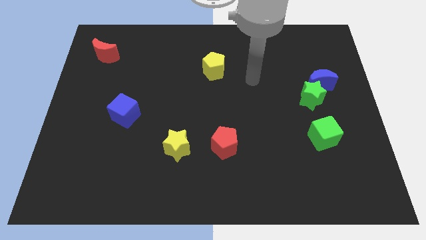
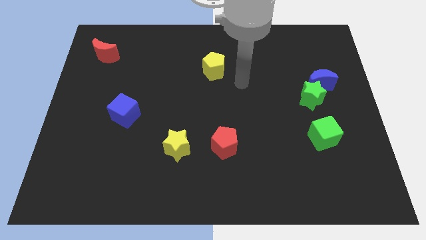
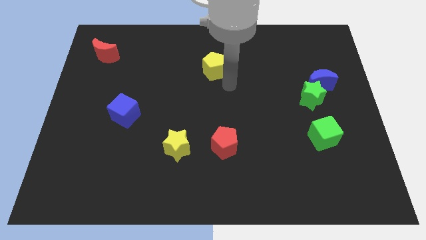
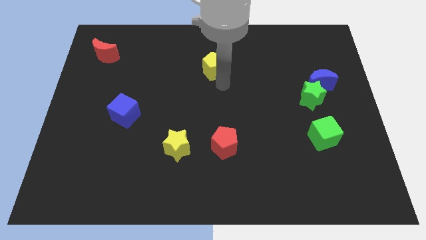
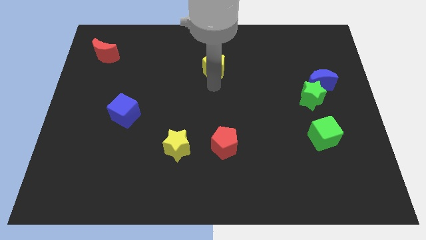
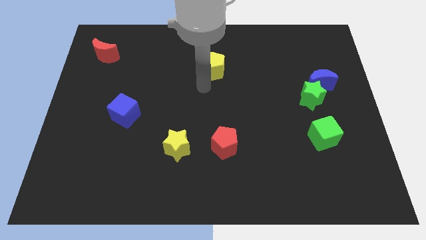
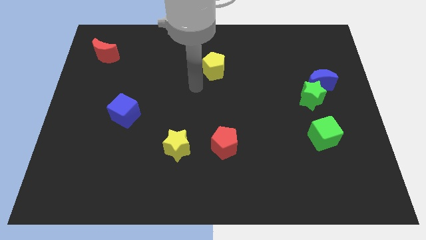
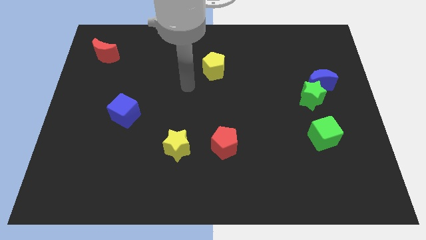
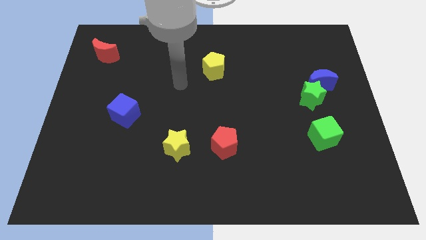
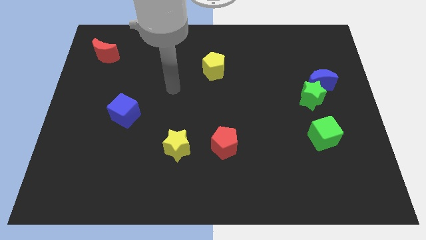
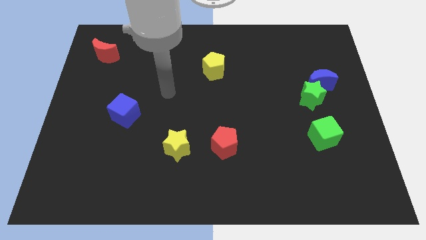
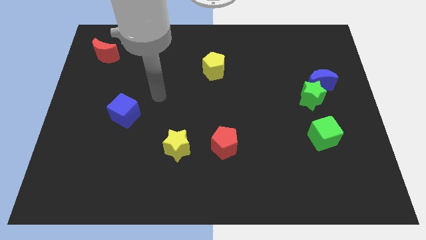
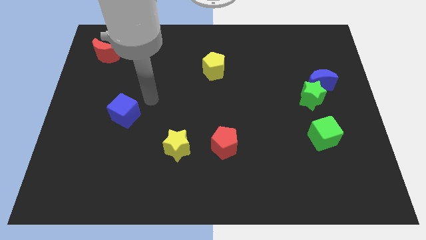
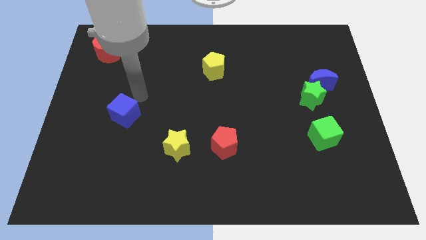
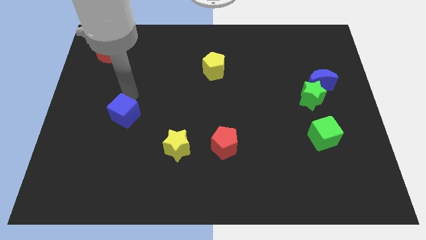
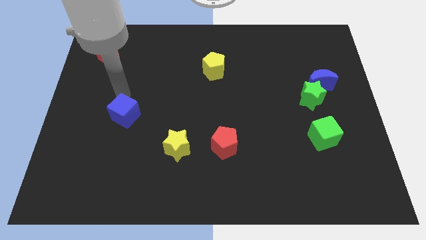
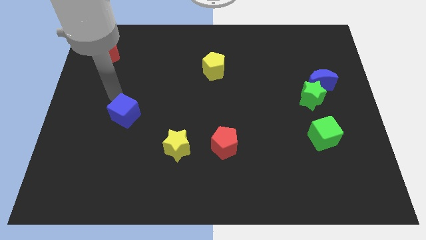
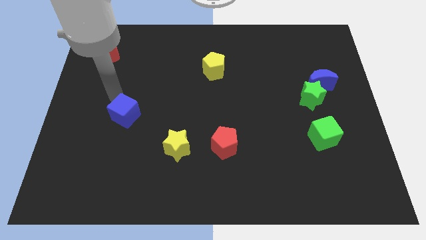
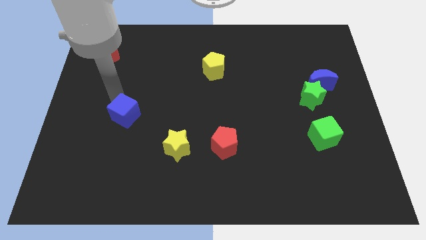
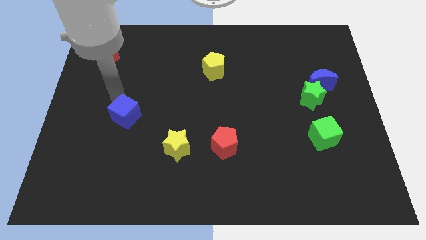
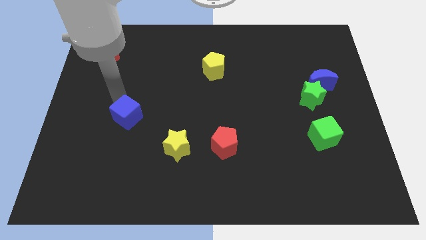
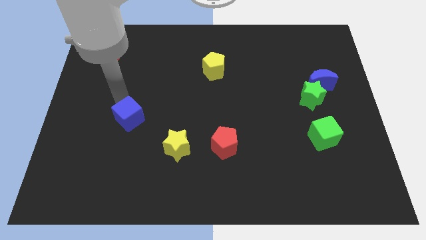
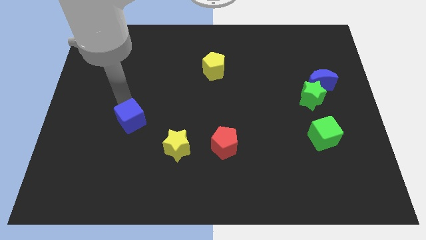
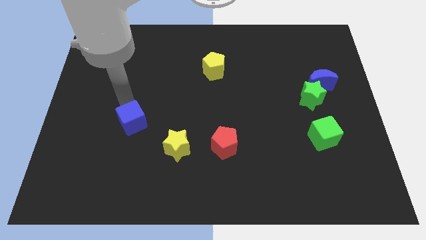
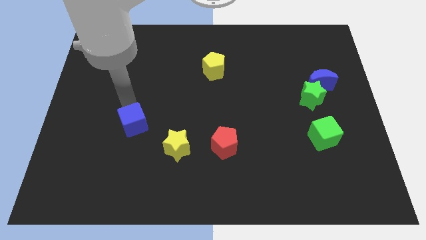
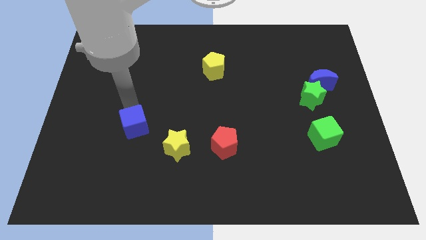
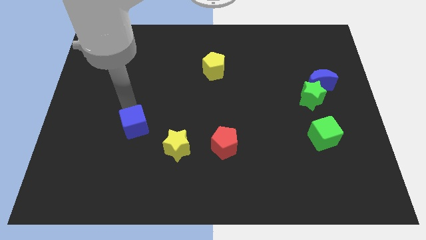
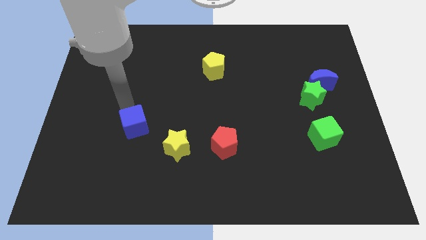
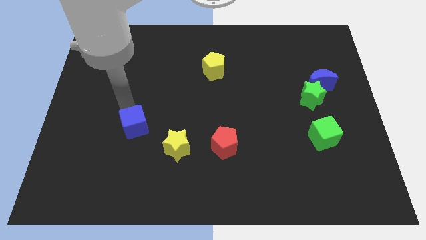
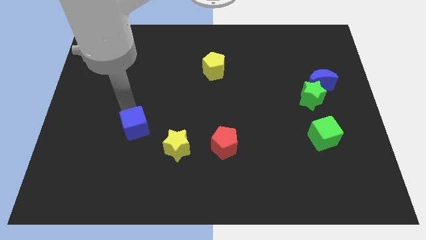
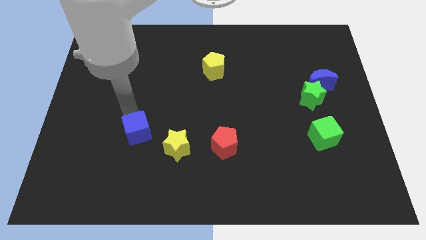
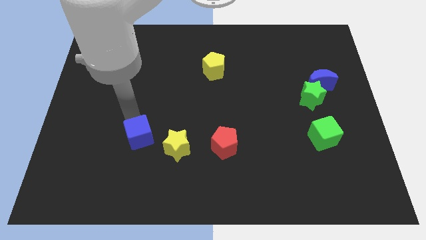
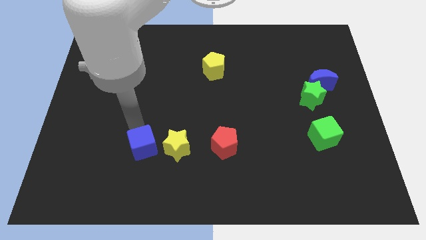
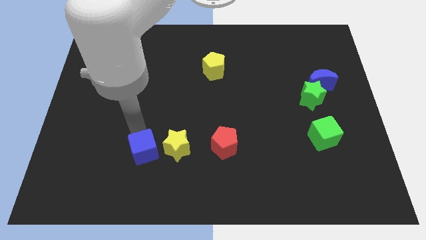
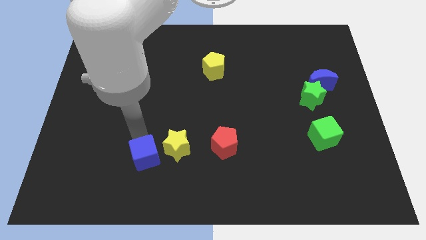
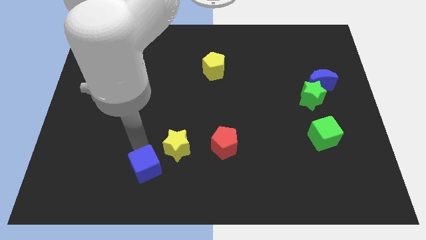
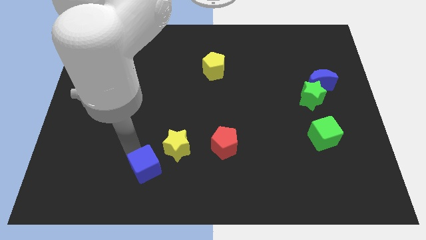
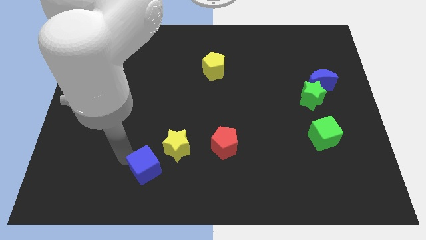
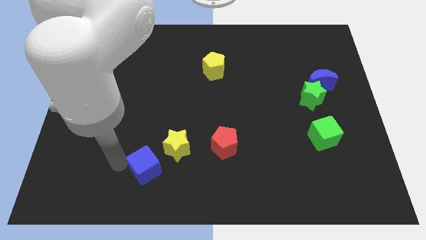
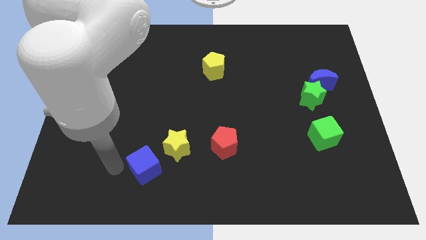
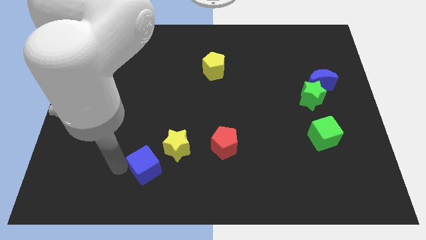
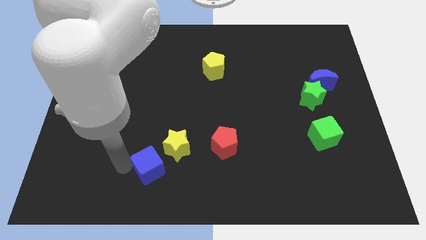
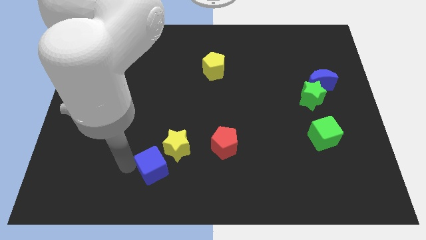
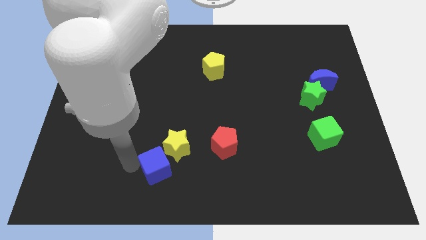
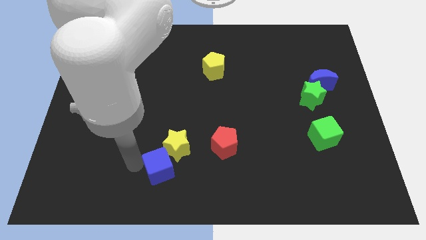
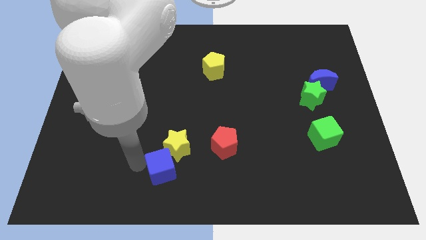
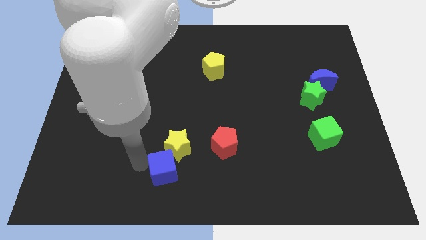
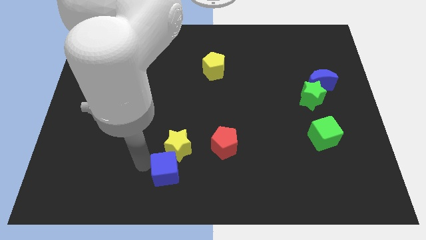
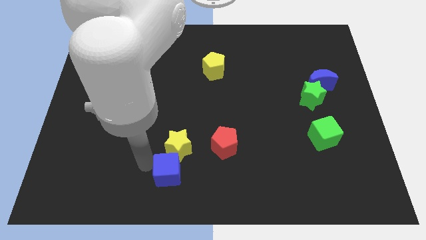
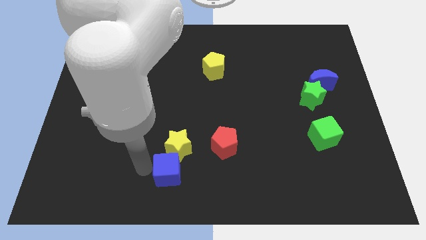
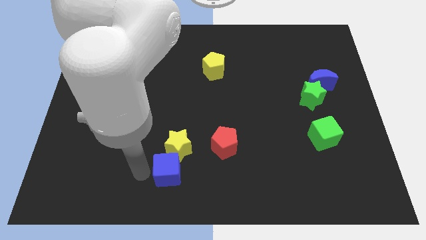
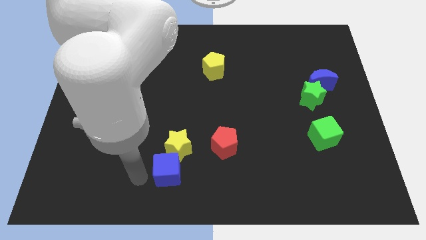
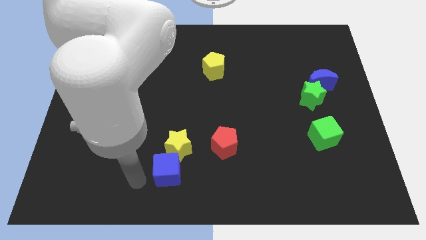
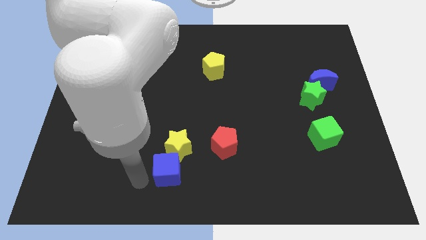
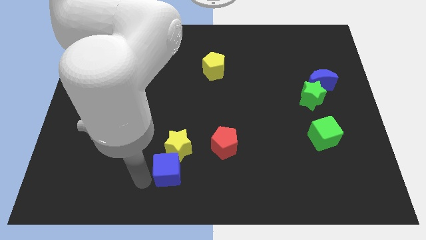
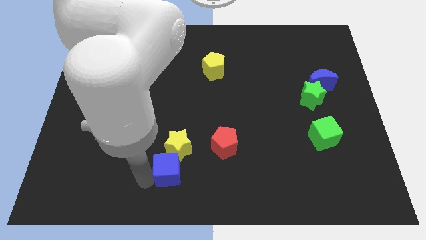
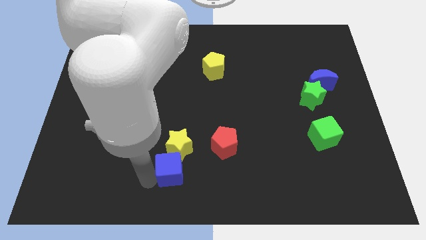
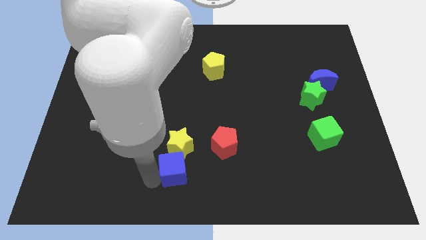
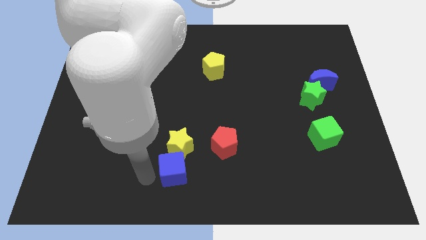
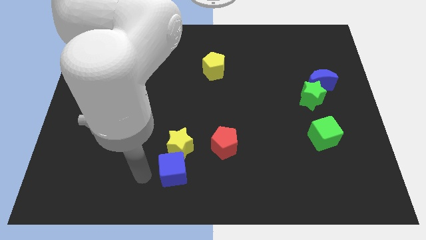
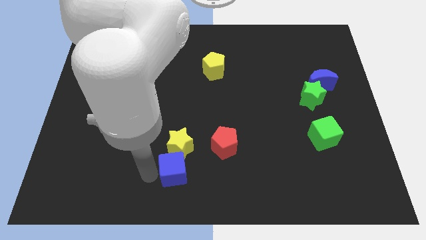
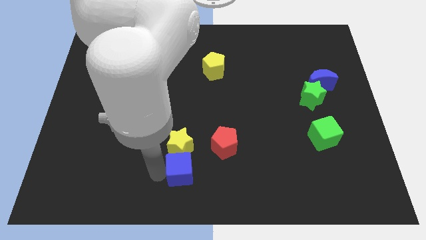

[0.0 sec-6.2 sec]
move the blue cube to the bottom right of the yellow star

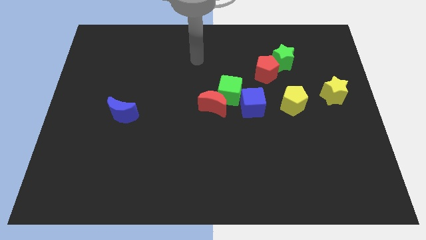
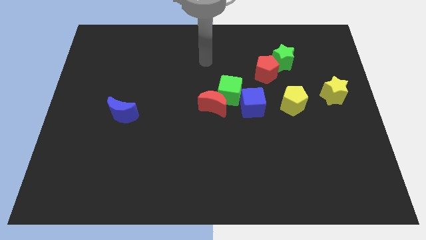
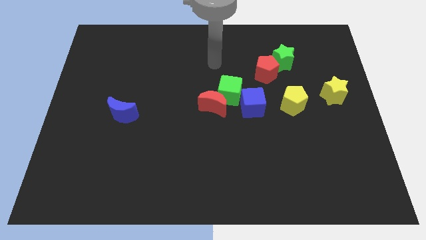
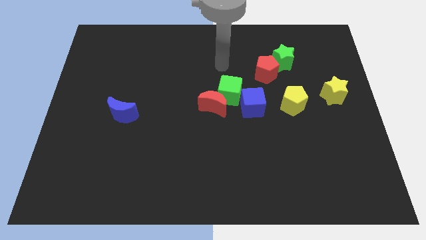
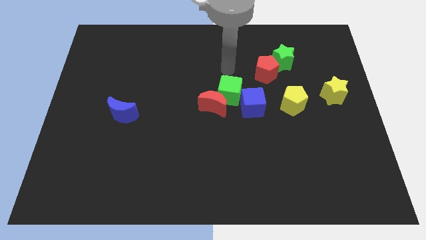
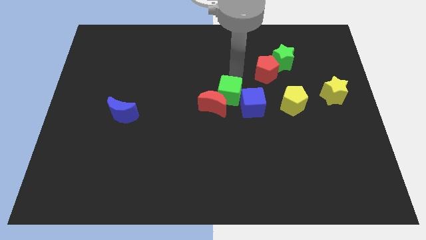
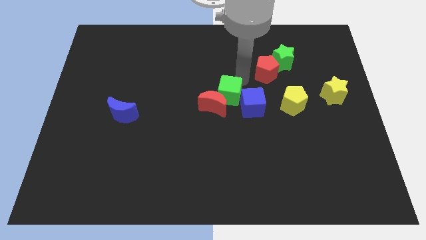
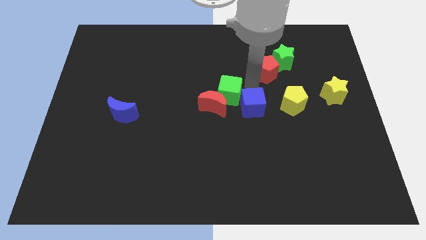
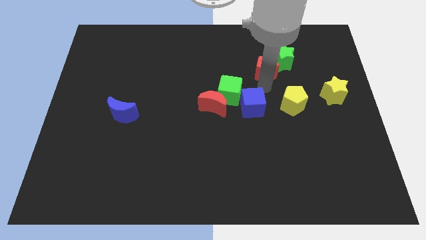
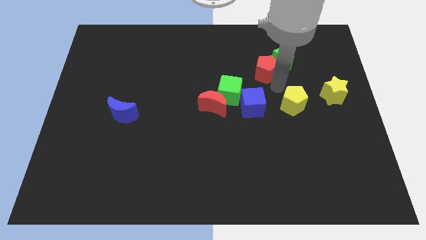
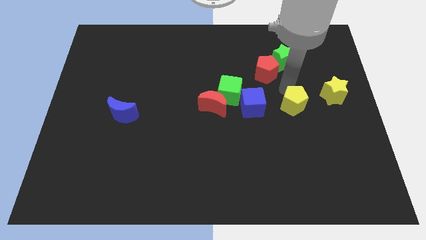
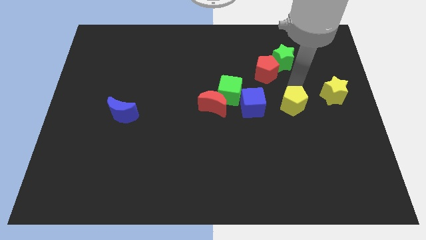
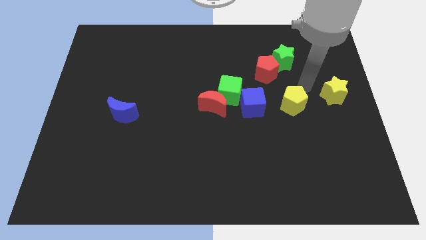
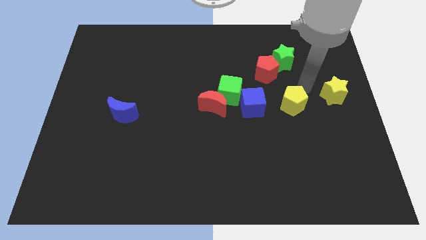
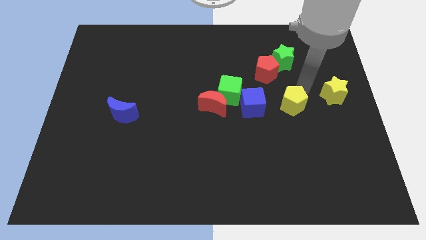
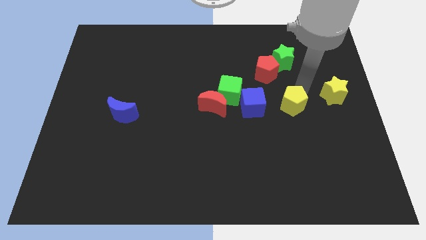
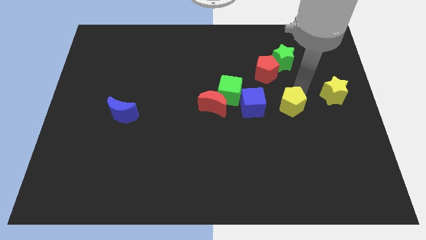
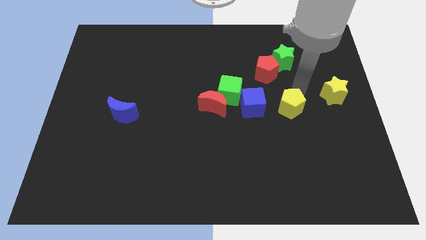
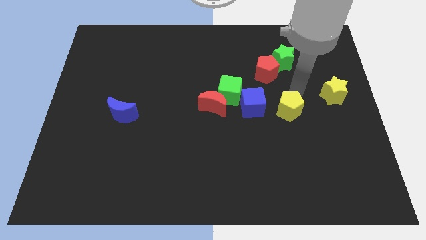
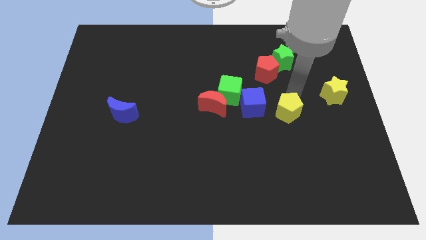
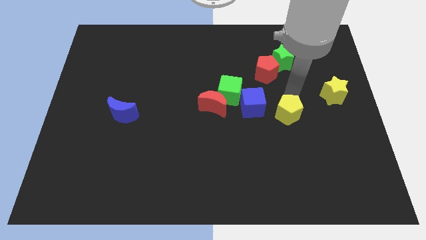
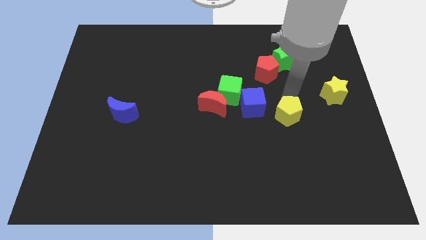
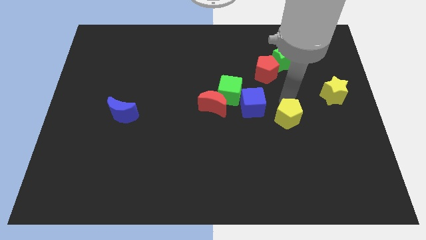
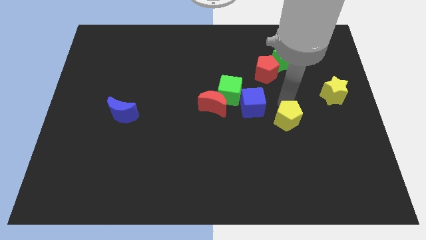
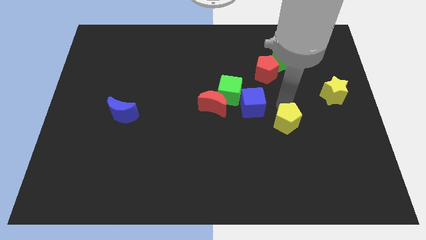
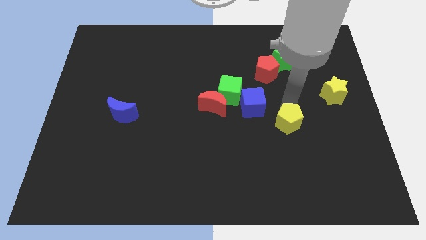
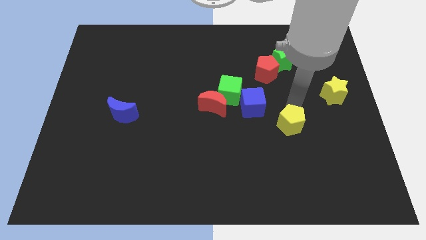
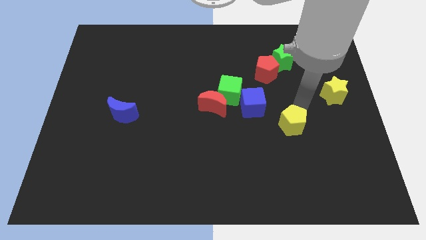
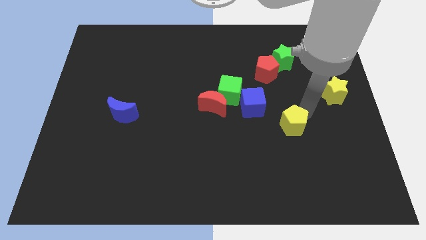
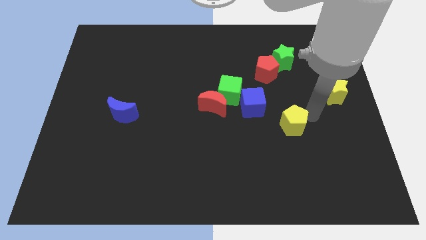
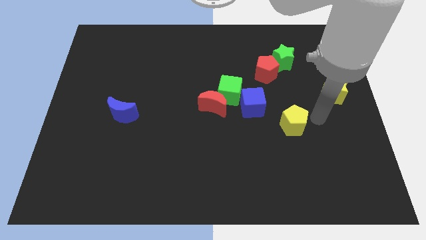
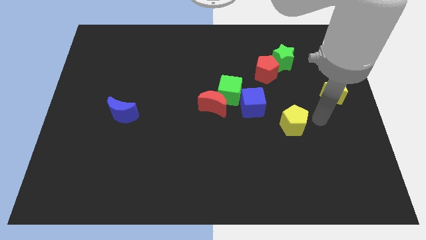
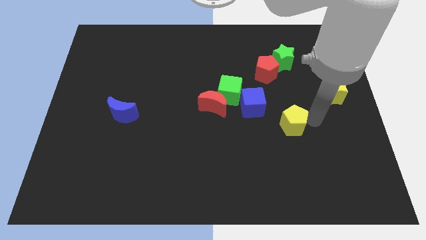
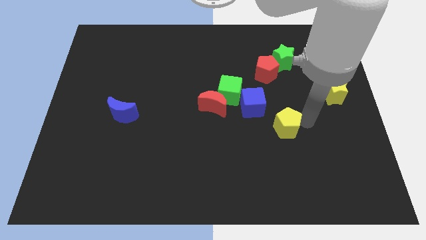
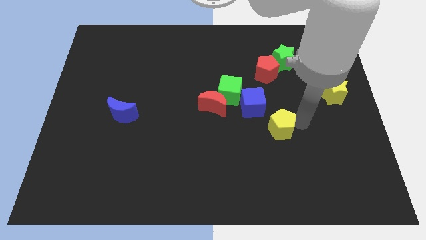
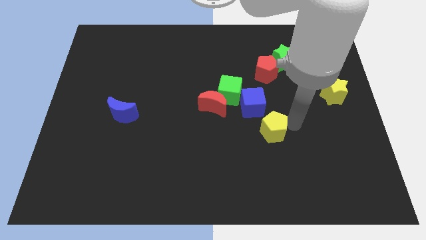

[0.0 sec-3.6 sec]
move the yellow pentagon to the bottom of the blue cube
